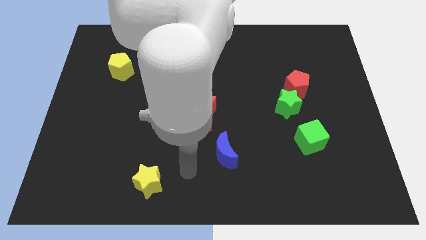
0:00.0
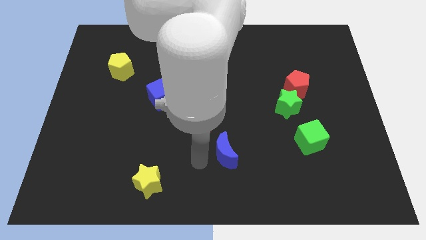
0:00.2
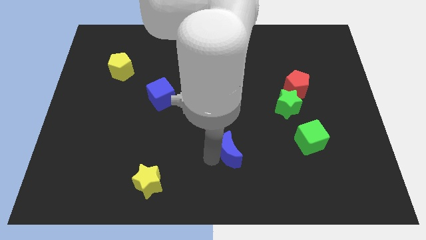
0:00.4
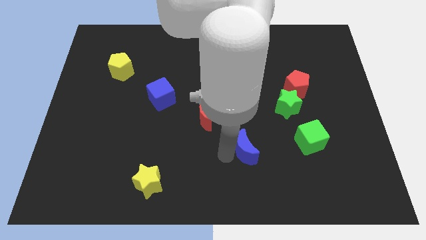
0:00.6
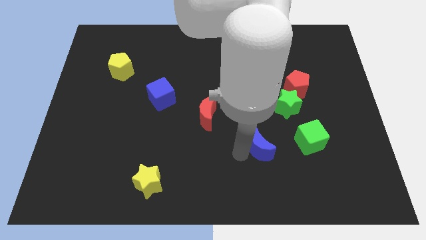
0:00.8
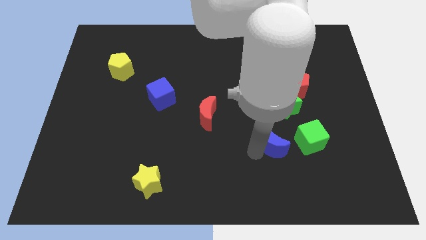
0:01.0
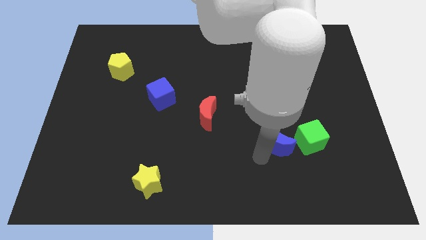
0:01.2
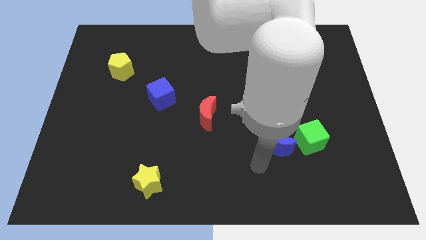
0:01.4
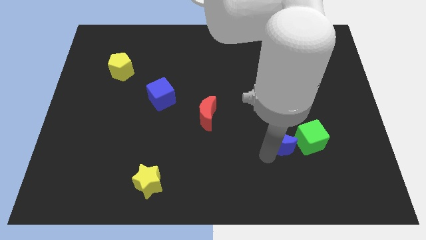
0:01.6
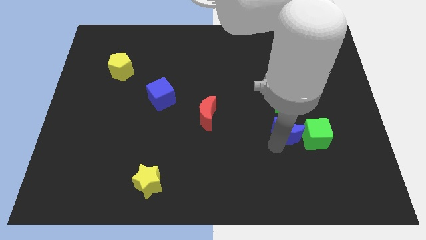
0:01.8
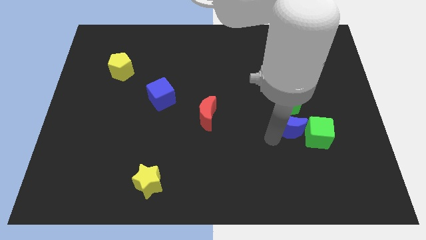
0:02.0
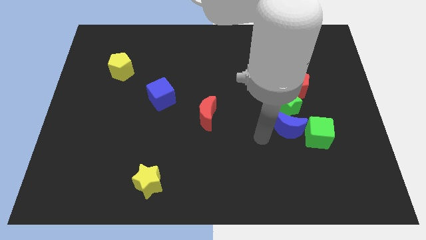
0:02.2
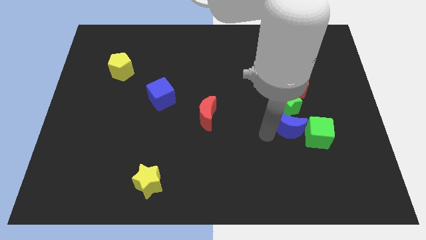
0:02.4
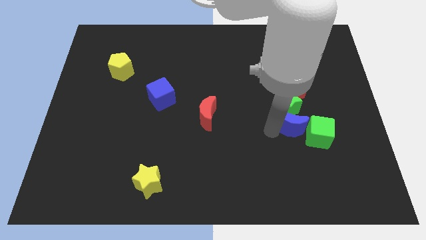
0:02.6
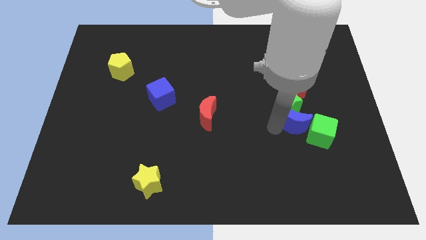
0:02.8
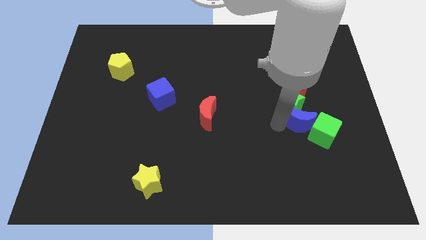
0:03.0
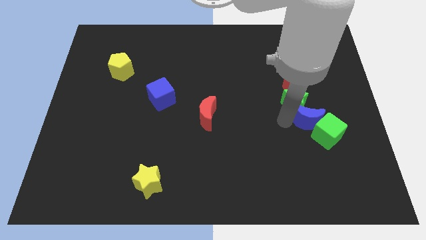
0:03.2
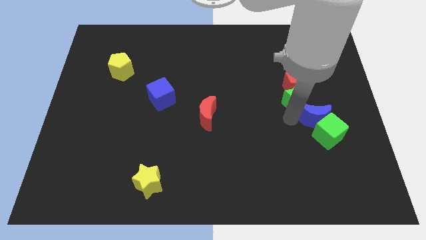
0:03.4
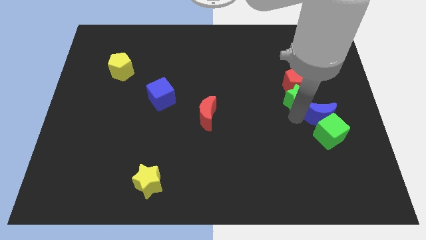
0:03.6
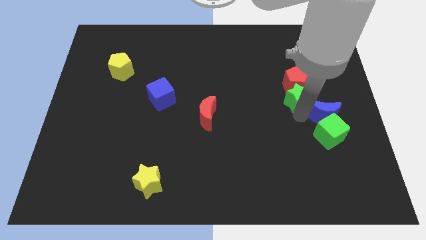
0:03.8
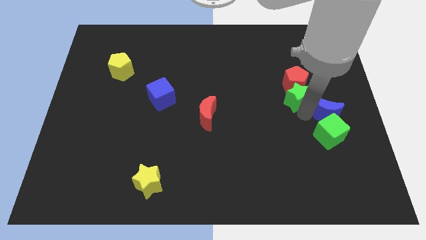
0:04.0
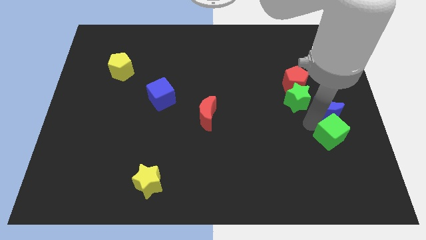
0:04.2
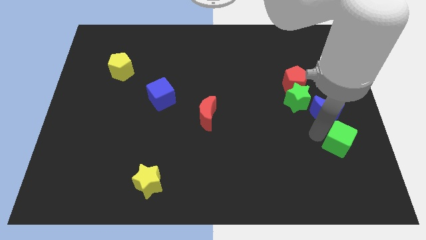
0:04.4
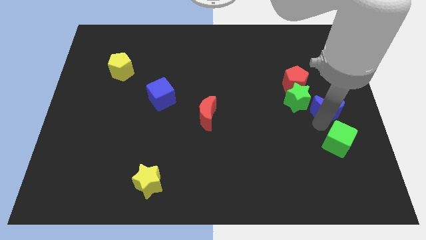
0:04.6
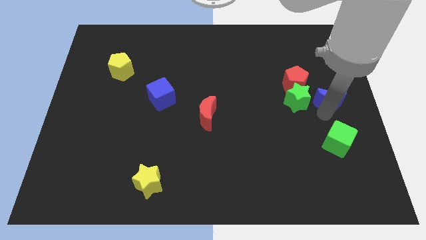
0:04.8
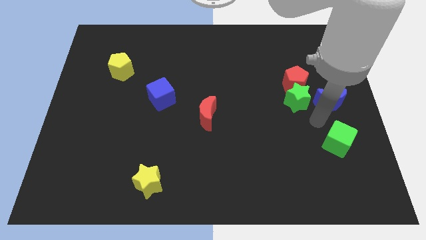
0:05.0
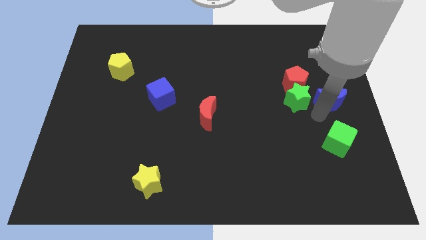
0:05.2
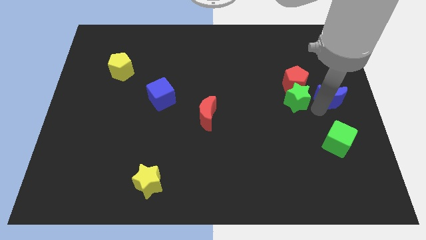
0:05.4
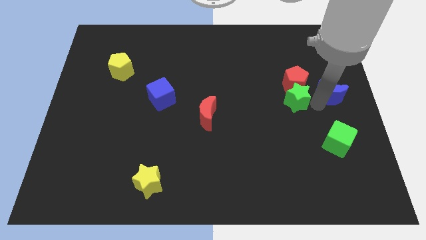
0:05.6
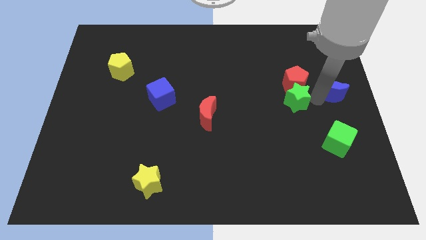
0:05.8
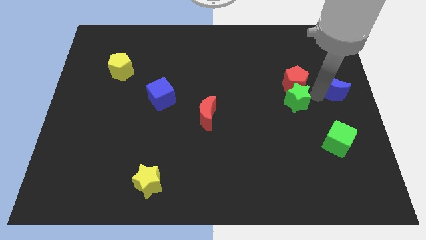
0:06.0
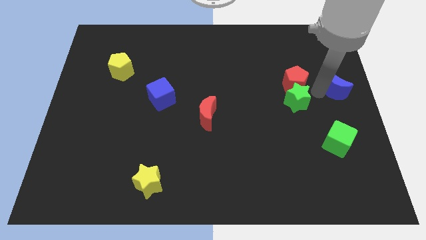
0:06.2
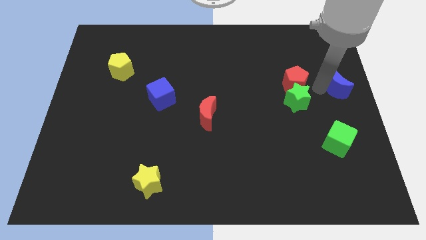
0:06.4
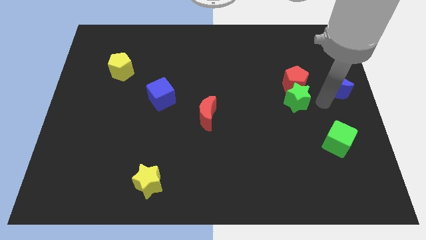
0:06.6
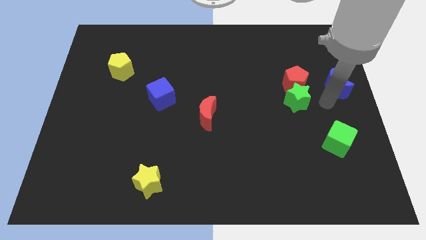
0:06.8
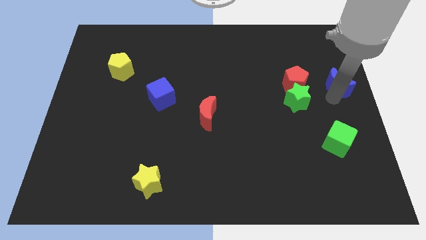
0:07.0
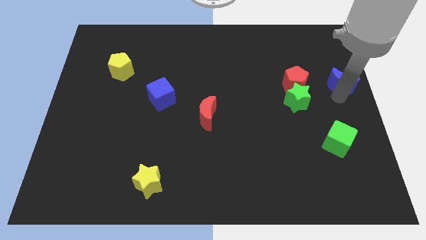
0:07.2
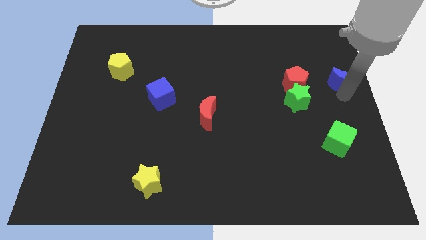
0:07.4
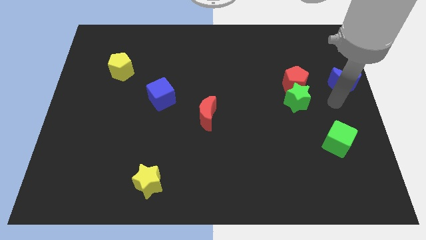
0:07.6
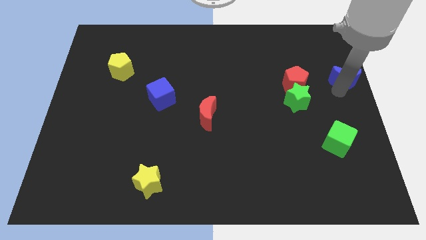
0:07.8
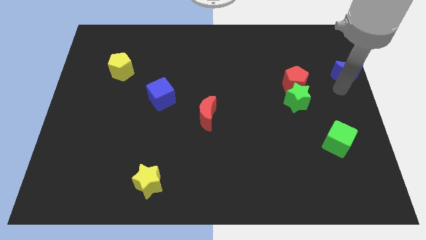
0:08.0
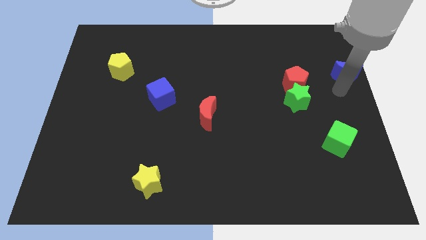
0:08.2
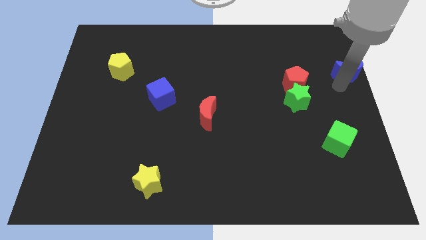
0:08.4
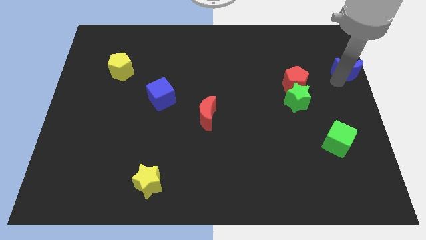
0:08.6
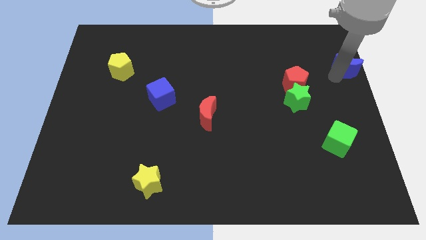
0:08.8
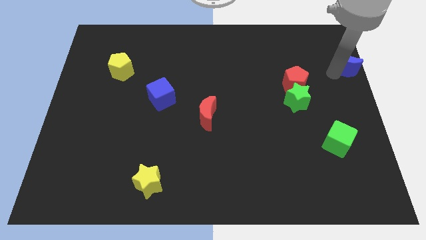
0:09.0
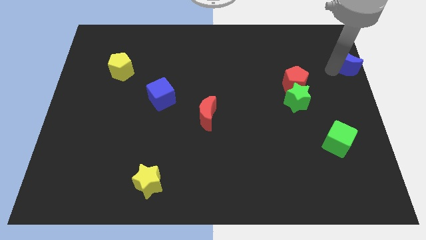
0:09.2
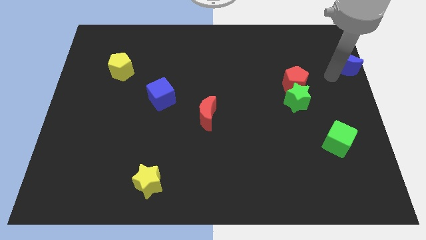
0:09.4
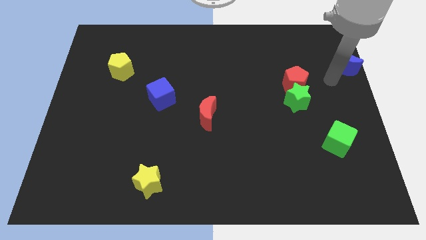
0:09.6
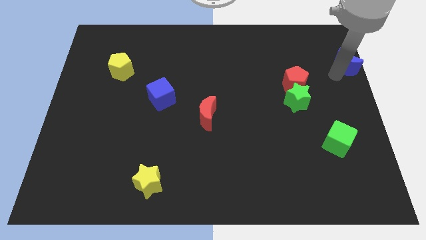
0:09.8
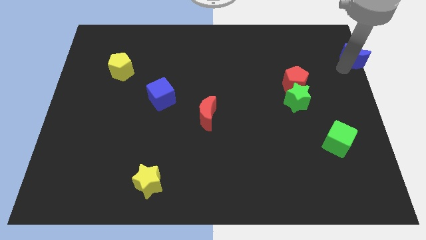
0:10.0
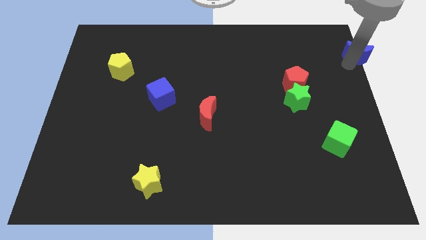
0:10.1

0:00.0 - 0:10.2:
put the blue moon to the upper right corner

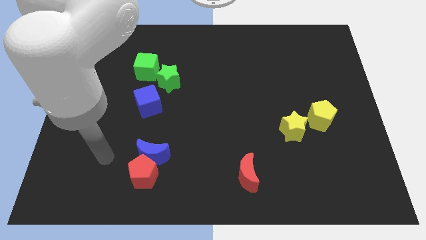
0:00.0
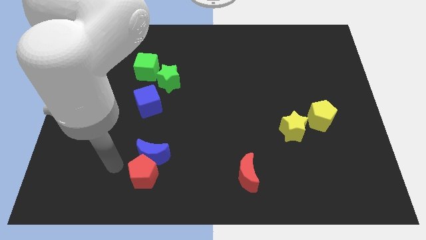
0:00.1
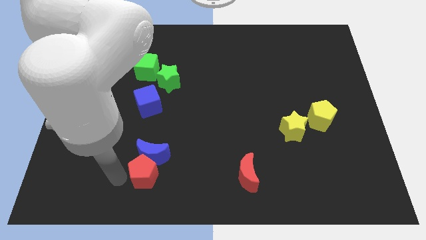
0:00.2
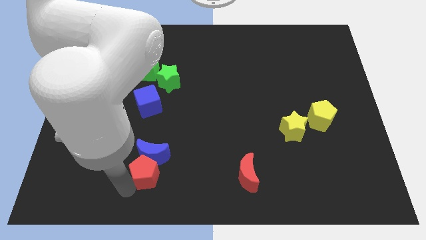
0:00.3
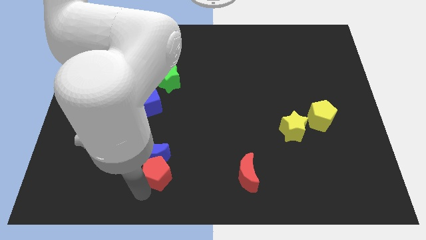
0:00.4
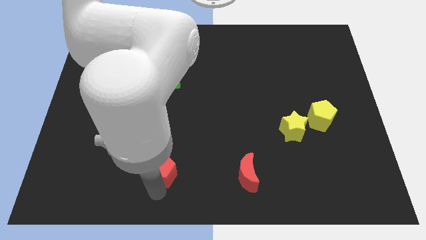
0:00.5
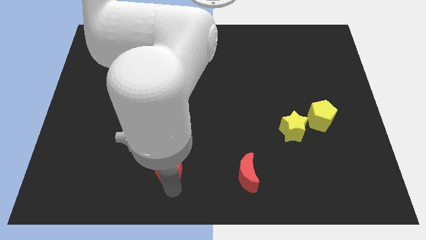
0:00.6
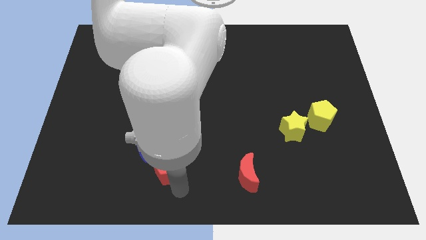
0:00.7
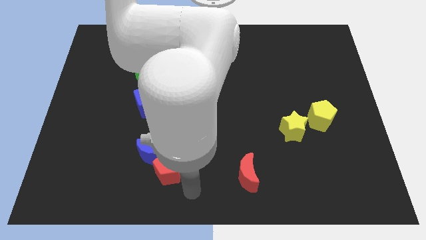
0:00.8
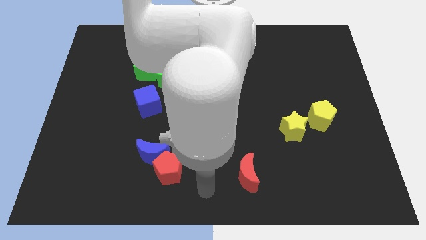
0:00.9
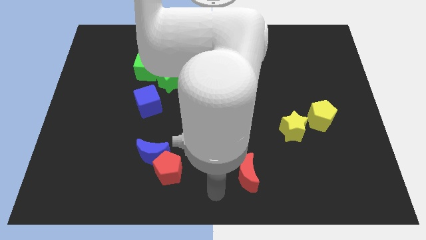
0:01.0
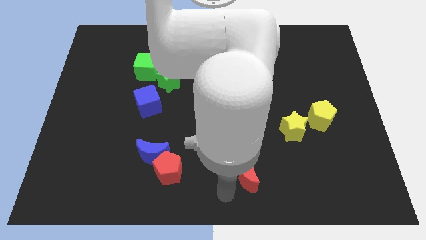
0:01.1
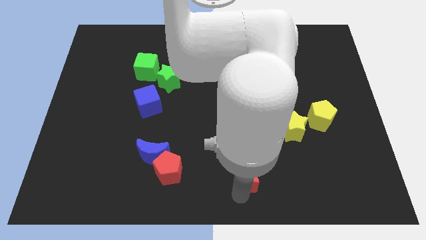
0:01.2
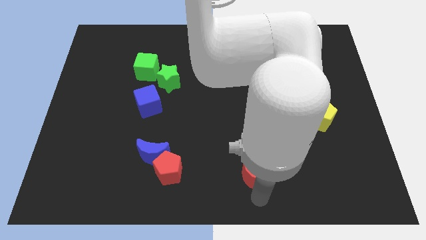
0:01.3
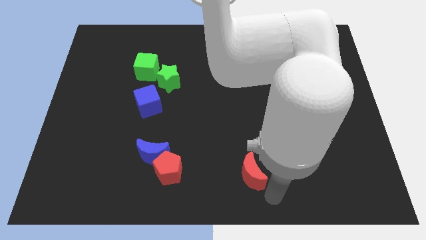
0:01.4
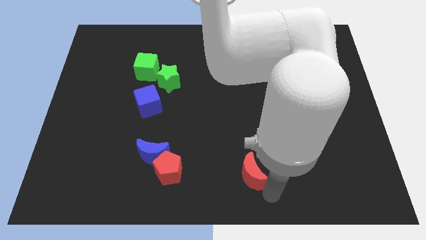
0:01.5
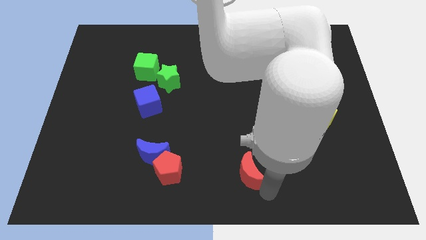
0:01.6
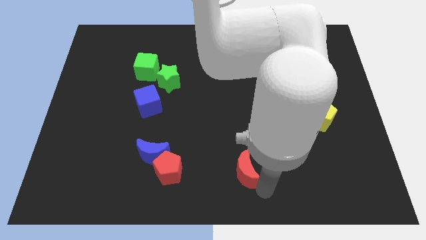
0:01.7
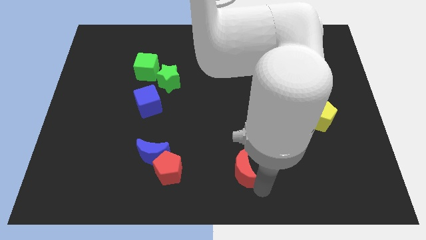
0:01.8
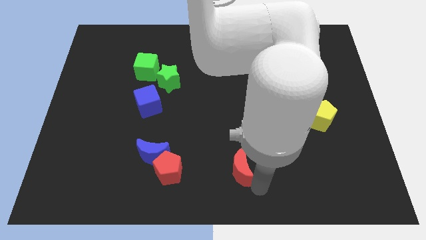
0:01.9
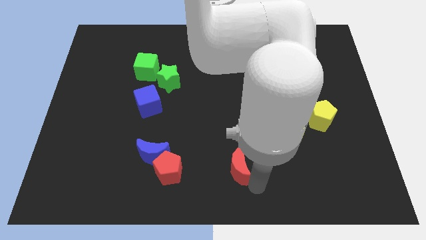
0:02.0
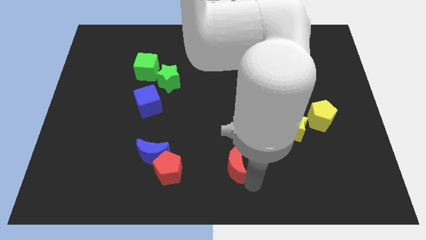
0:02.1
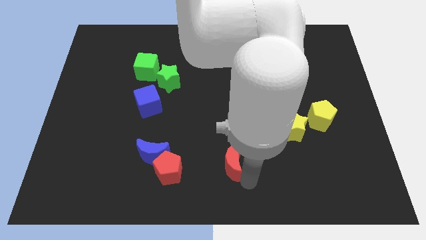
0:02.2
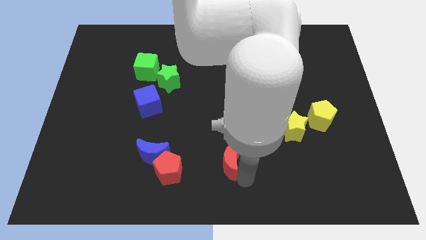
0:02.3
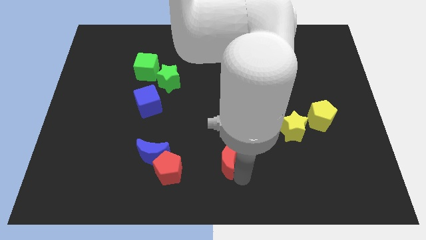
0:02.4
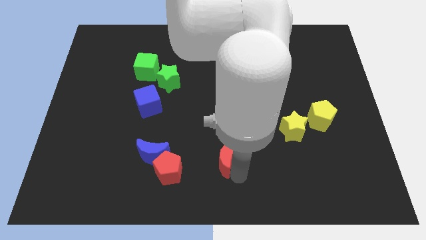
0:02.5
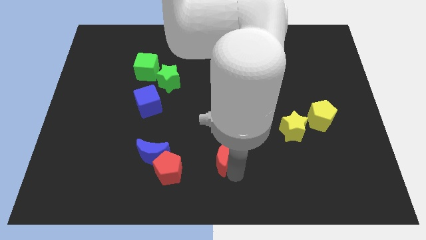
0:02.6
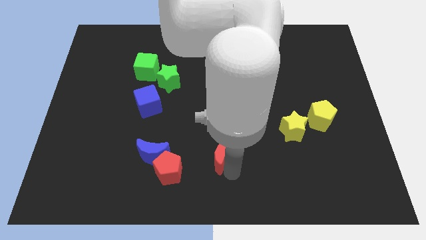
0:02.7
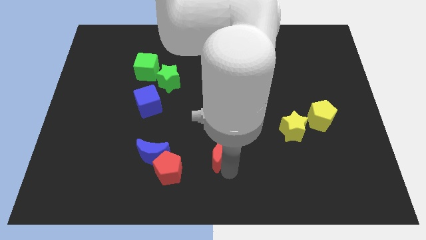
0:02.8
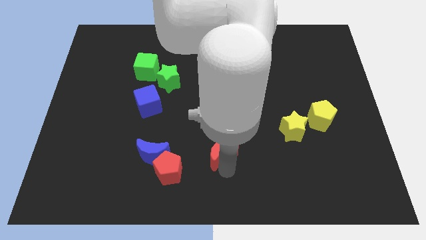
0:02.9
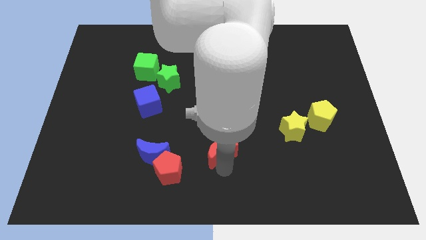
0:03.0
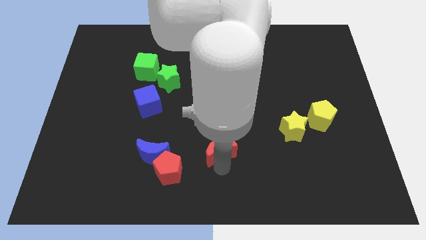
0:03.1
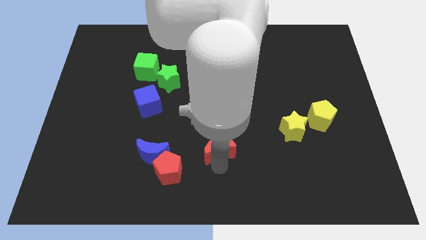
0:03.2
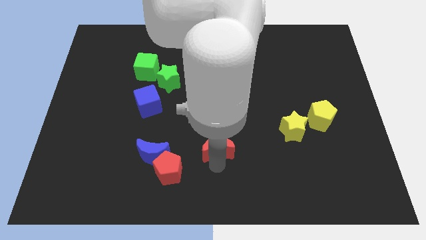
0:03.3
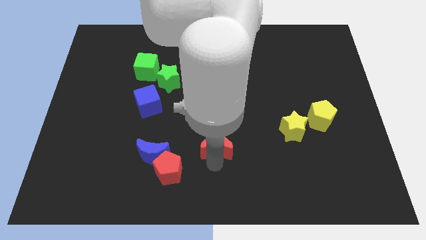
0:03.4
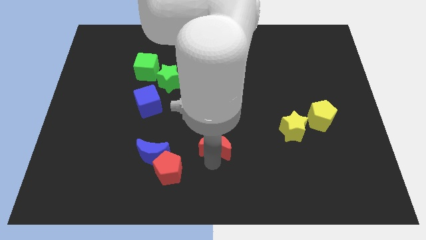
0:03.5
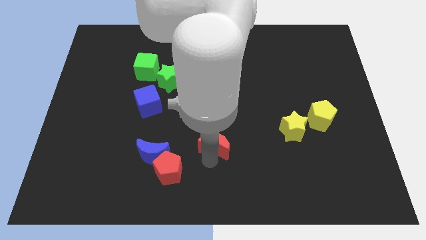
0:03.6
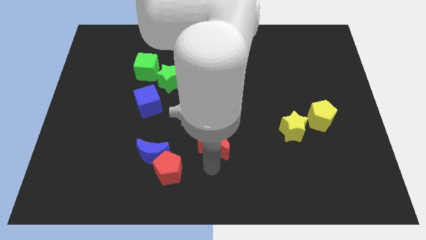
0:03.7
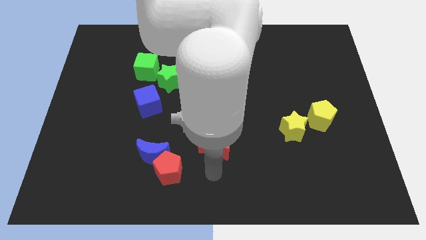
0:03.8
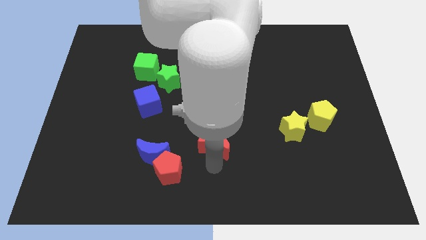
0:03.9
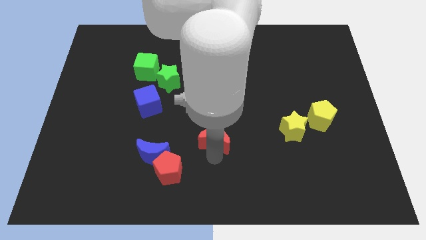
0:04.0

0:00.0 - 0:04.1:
put the red moon to the center of the board
